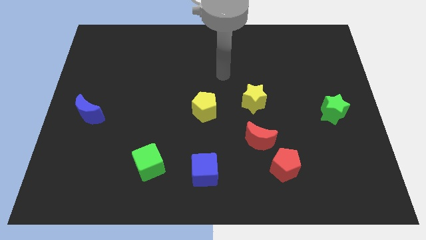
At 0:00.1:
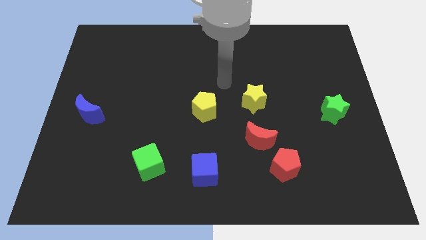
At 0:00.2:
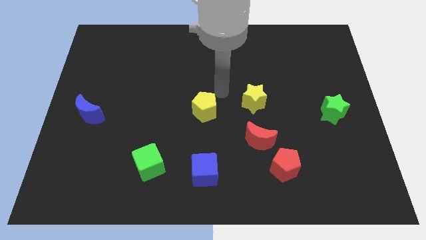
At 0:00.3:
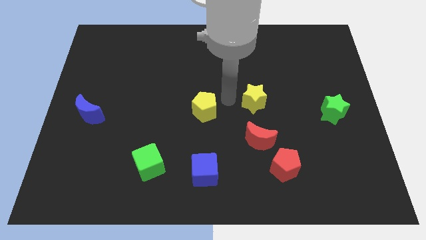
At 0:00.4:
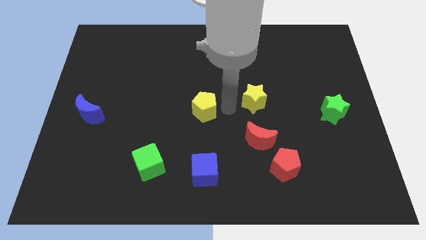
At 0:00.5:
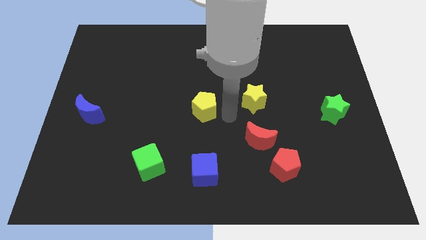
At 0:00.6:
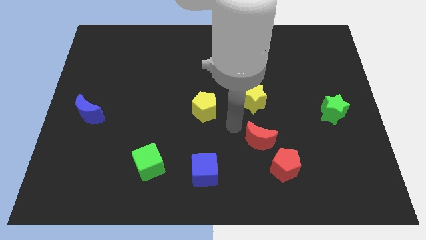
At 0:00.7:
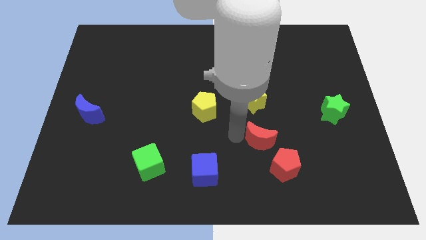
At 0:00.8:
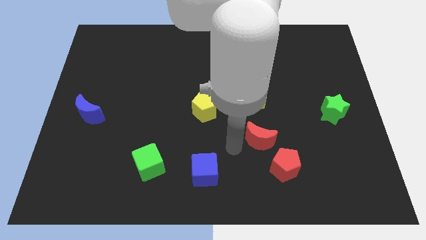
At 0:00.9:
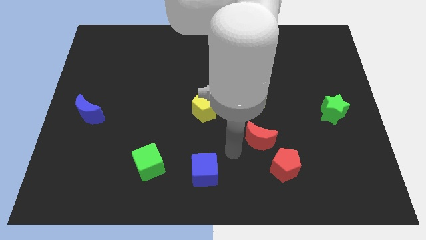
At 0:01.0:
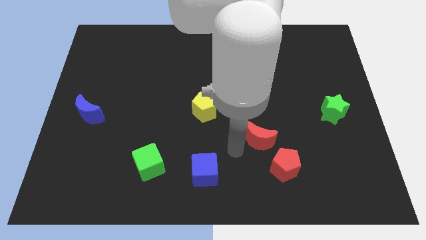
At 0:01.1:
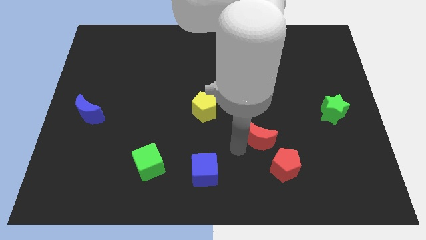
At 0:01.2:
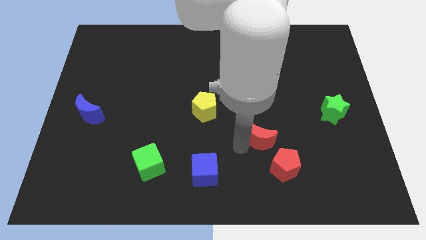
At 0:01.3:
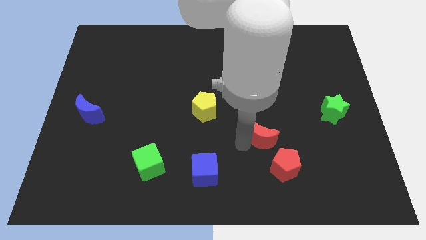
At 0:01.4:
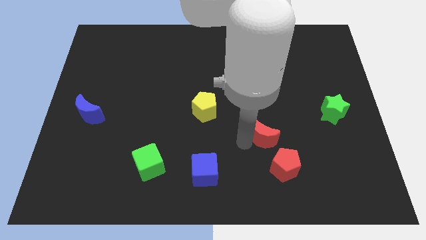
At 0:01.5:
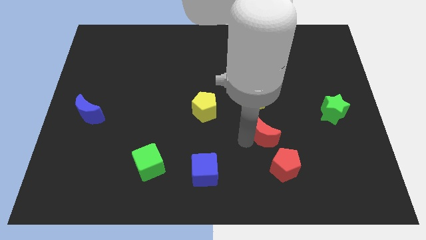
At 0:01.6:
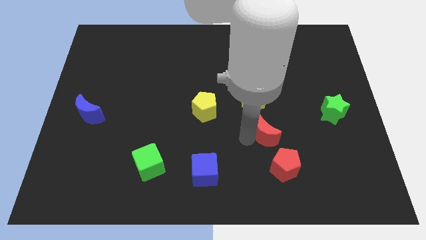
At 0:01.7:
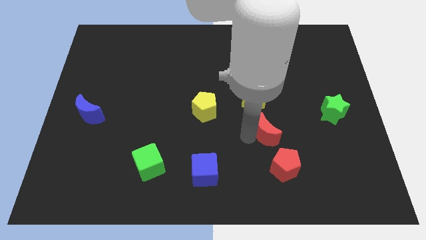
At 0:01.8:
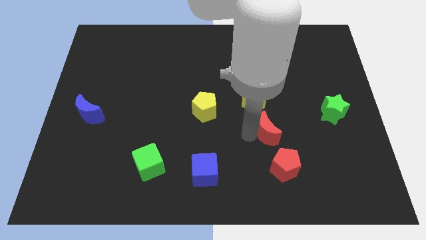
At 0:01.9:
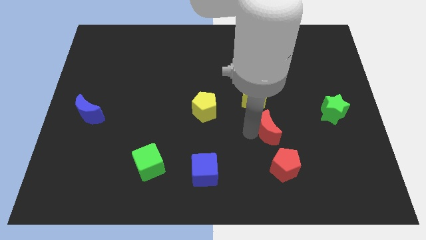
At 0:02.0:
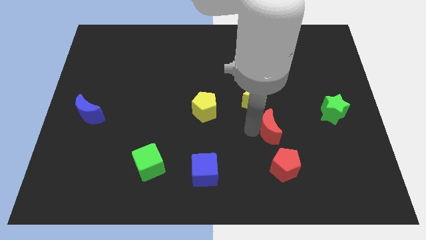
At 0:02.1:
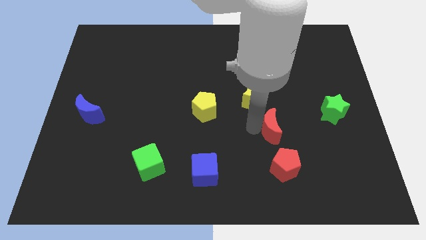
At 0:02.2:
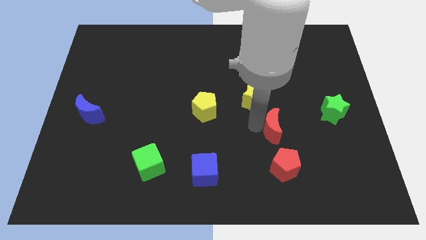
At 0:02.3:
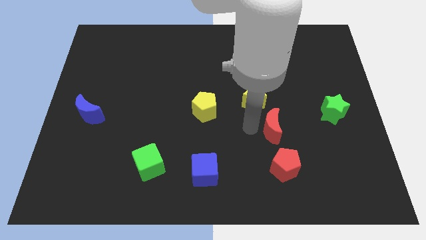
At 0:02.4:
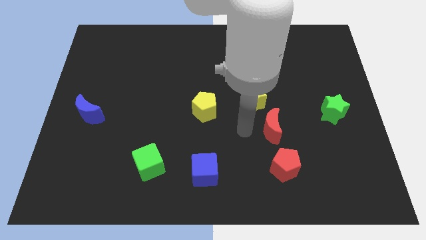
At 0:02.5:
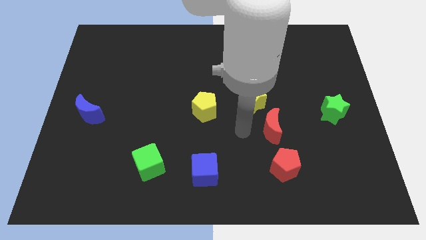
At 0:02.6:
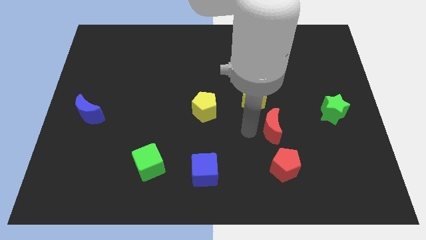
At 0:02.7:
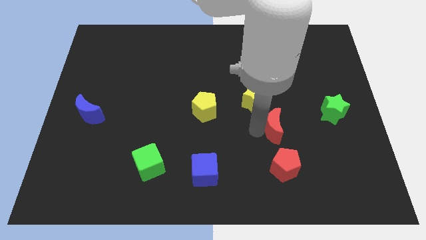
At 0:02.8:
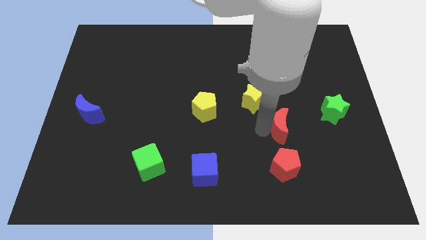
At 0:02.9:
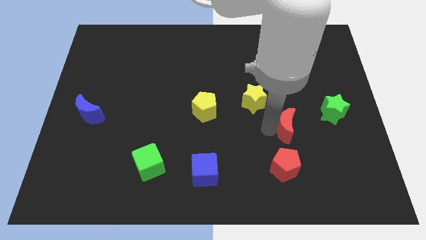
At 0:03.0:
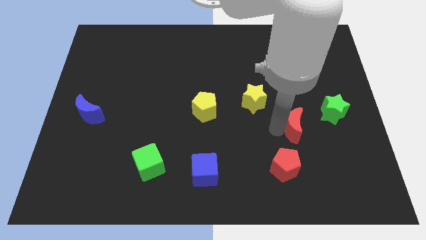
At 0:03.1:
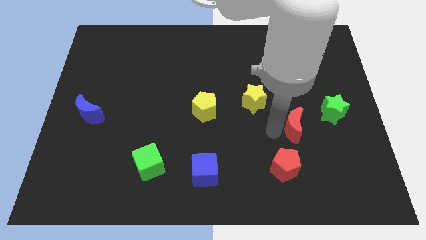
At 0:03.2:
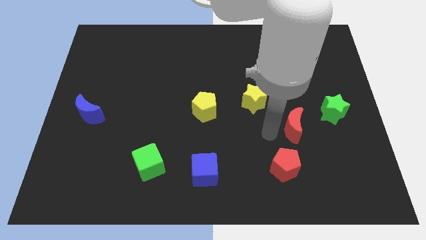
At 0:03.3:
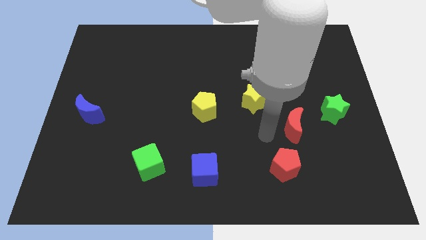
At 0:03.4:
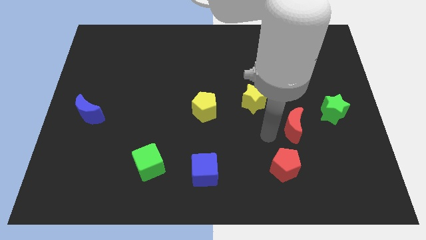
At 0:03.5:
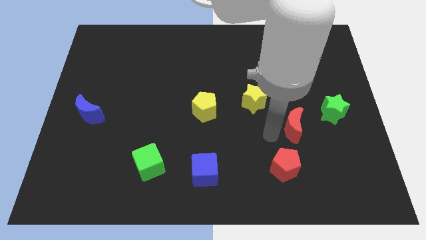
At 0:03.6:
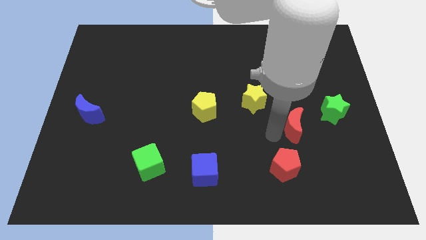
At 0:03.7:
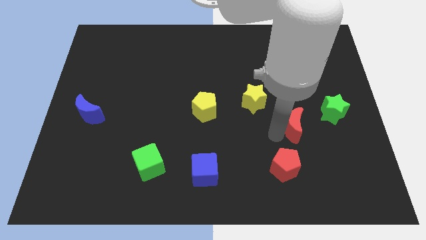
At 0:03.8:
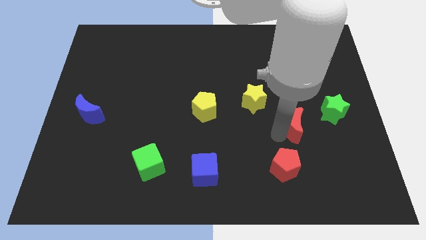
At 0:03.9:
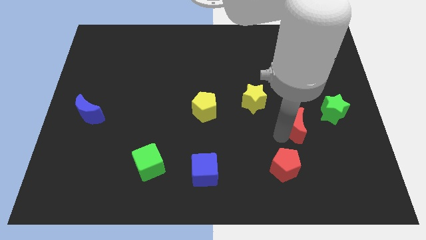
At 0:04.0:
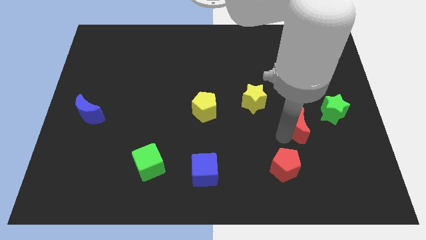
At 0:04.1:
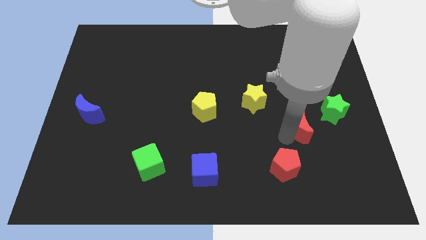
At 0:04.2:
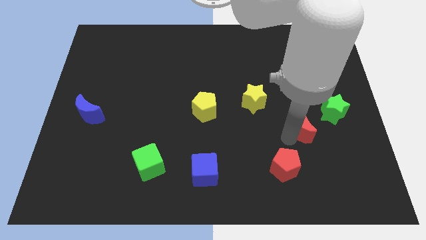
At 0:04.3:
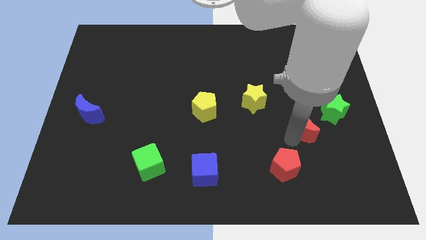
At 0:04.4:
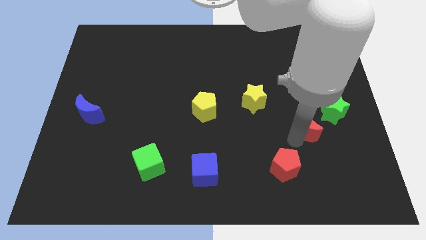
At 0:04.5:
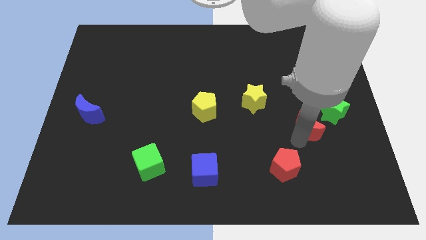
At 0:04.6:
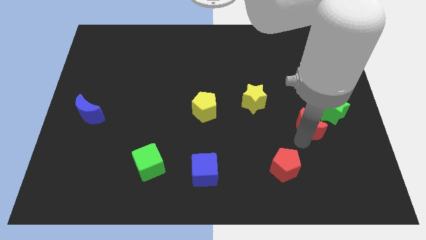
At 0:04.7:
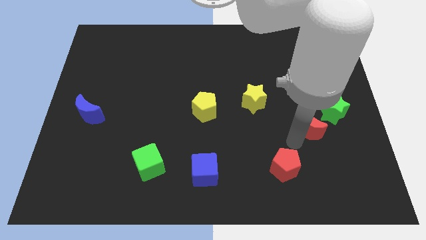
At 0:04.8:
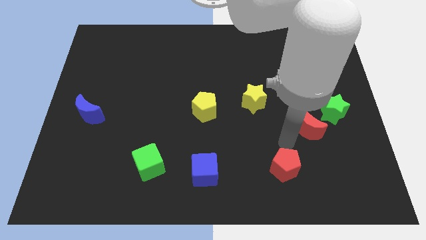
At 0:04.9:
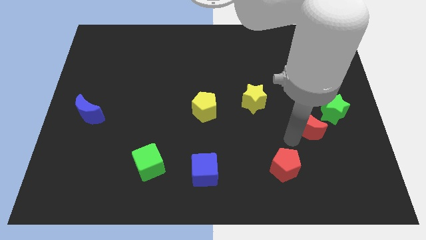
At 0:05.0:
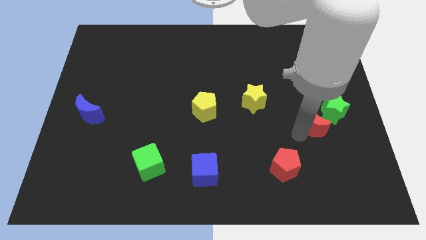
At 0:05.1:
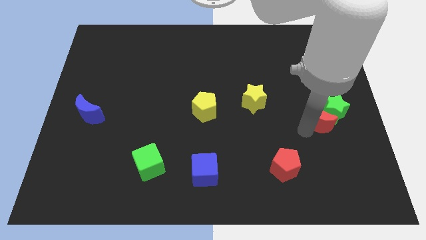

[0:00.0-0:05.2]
push the red moon close to the green star

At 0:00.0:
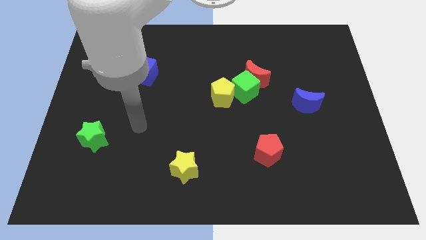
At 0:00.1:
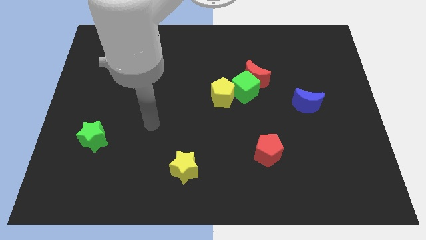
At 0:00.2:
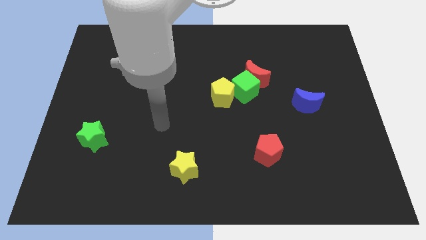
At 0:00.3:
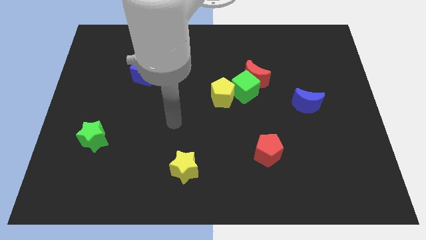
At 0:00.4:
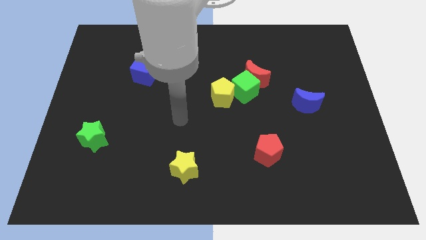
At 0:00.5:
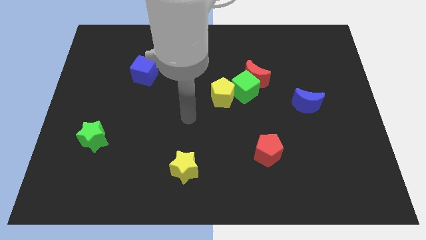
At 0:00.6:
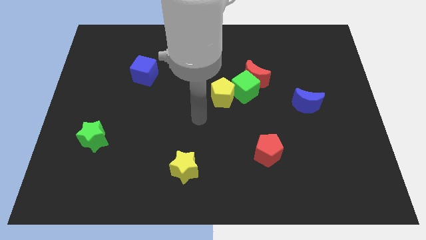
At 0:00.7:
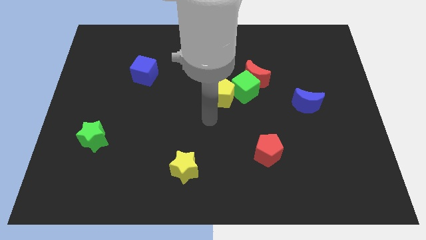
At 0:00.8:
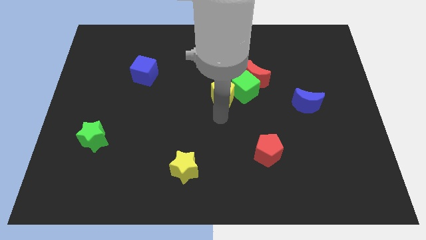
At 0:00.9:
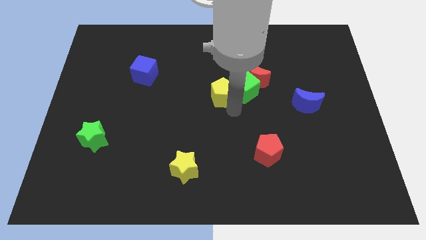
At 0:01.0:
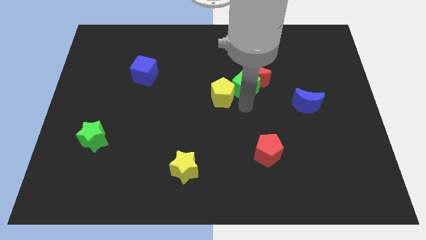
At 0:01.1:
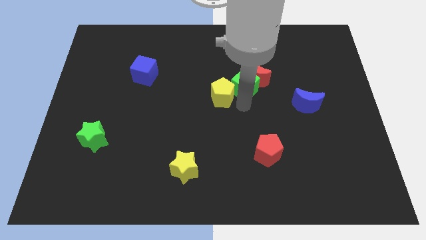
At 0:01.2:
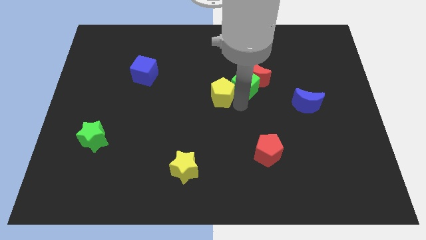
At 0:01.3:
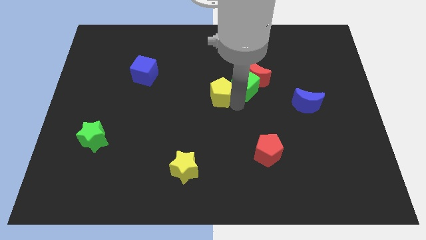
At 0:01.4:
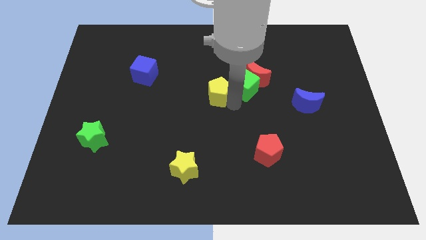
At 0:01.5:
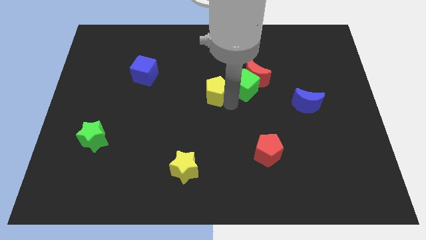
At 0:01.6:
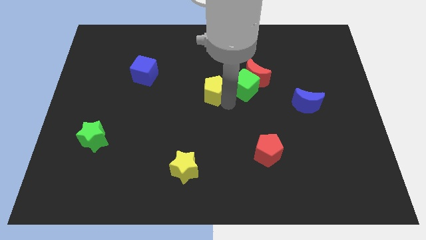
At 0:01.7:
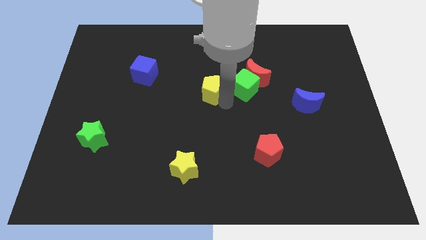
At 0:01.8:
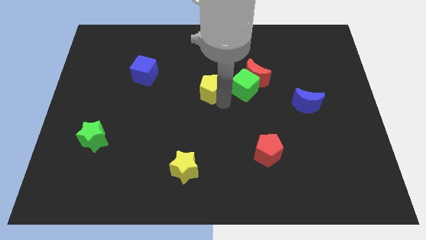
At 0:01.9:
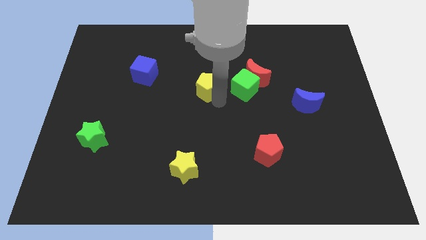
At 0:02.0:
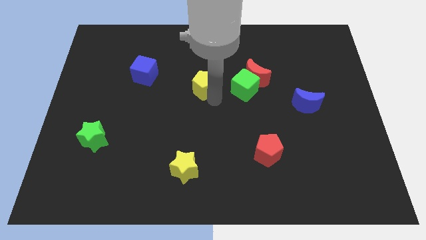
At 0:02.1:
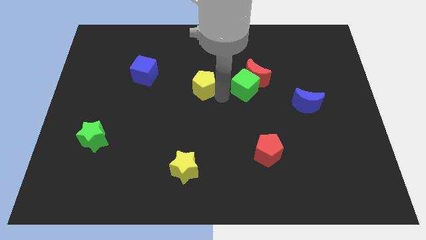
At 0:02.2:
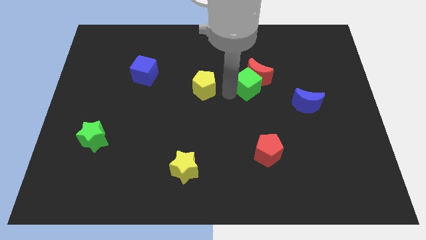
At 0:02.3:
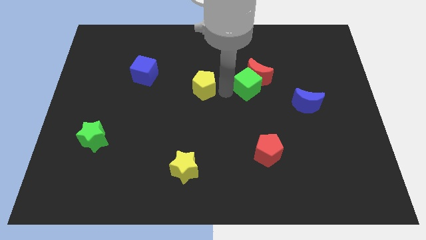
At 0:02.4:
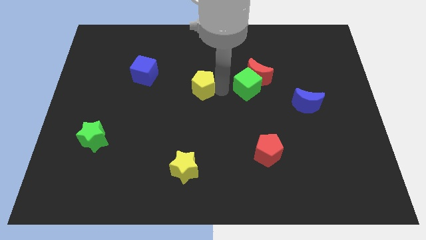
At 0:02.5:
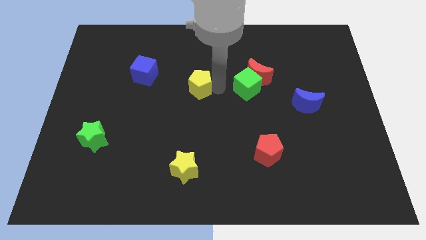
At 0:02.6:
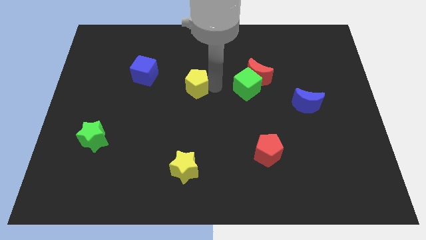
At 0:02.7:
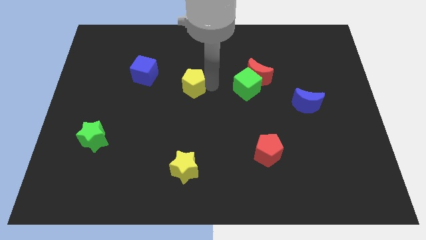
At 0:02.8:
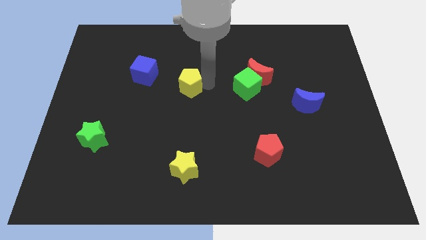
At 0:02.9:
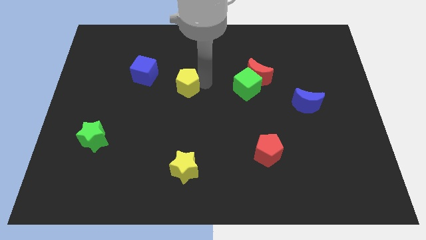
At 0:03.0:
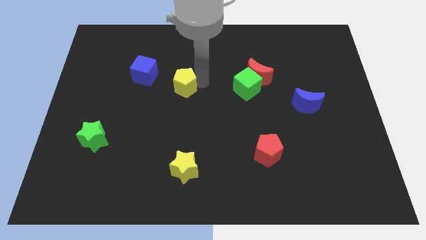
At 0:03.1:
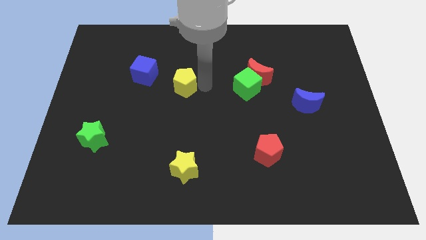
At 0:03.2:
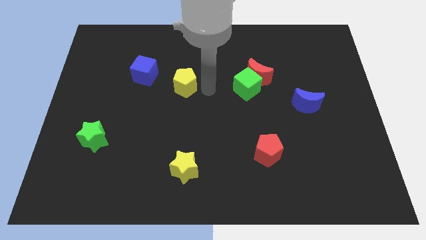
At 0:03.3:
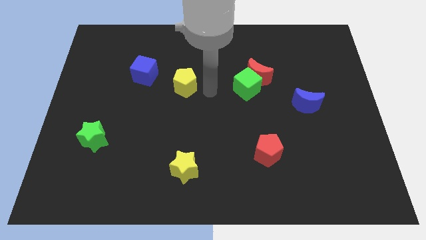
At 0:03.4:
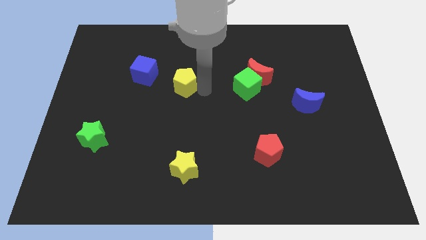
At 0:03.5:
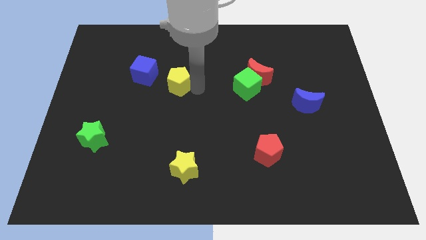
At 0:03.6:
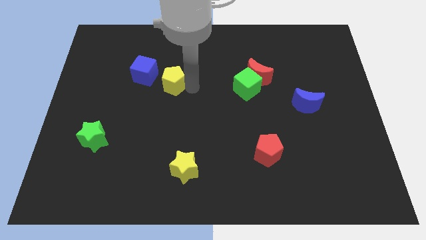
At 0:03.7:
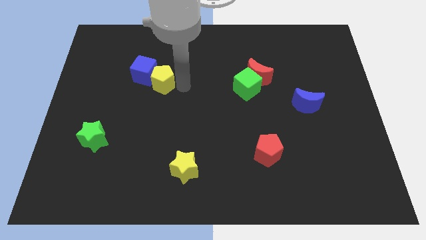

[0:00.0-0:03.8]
slide the yellow pentagon next to the blue cube
